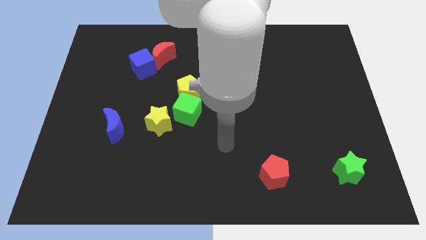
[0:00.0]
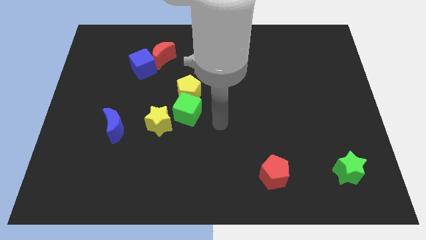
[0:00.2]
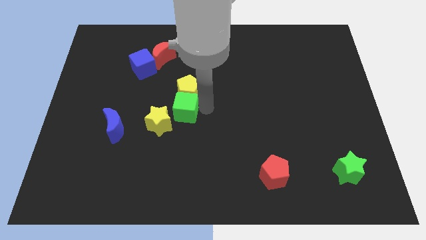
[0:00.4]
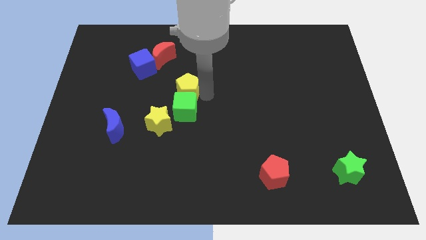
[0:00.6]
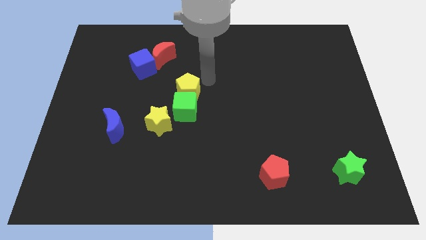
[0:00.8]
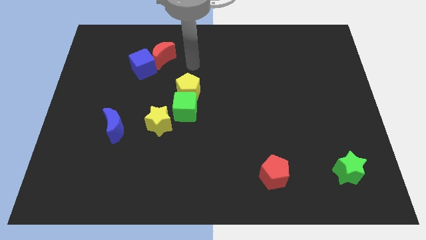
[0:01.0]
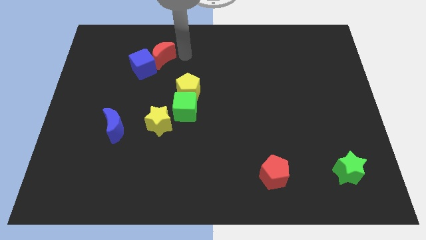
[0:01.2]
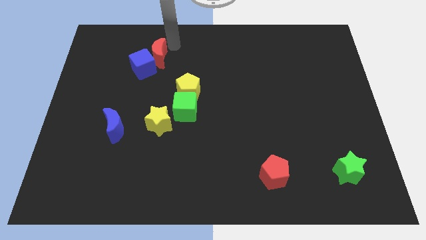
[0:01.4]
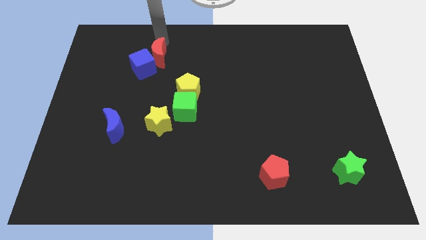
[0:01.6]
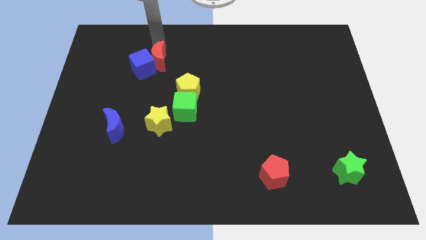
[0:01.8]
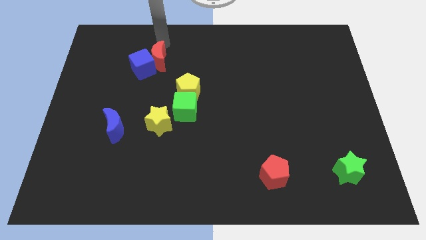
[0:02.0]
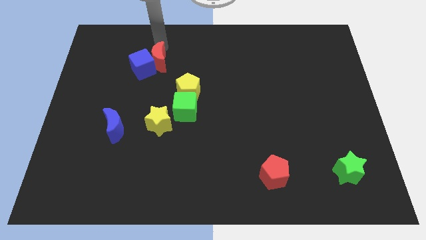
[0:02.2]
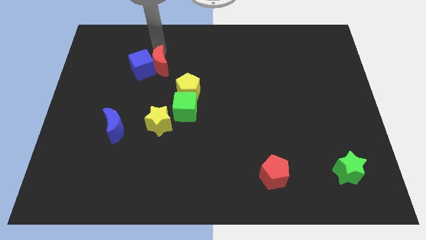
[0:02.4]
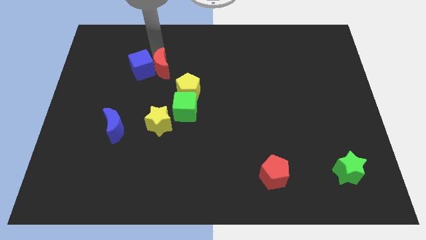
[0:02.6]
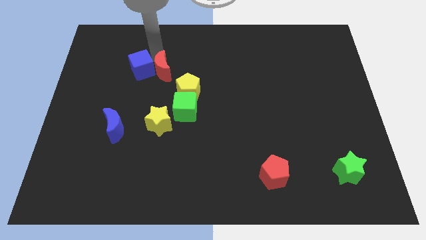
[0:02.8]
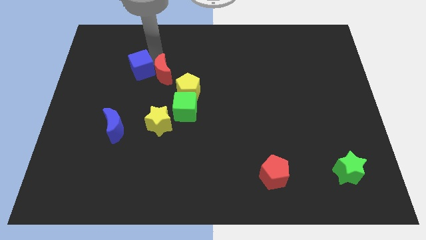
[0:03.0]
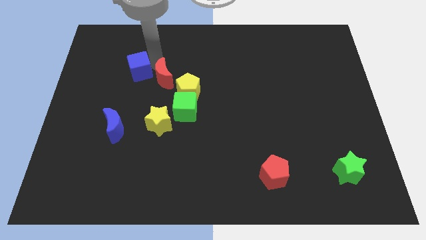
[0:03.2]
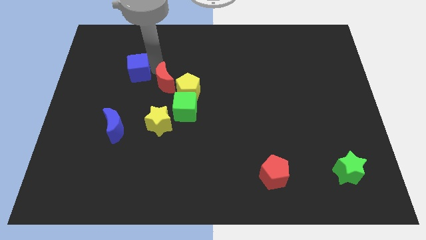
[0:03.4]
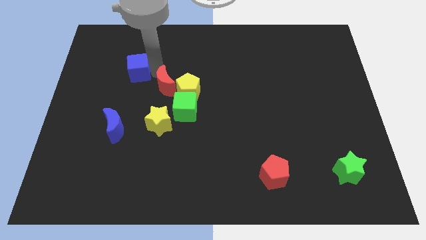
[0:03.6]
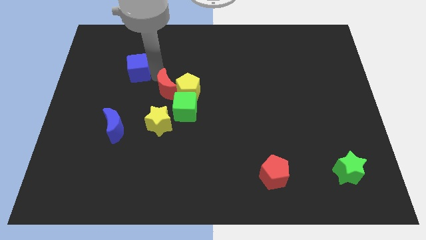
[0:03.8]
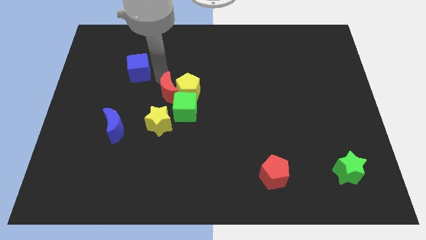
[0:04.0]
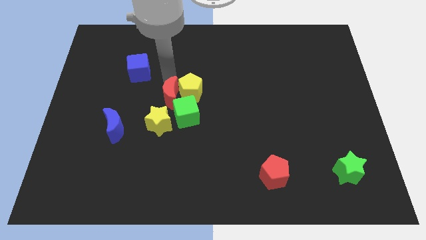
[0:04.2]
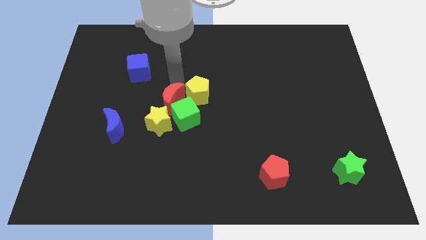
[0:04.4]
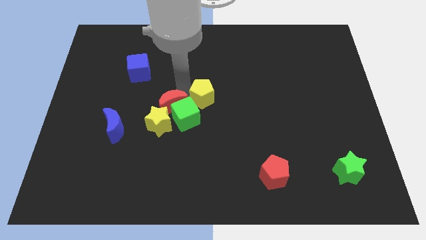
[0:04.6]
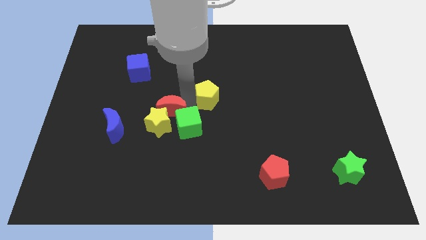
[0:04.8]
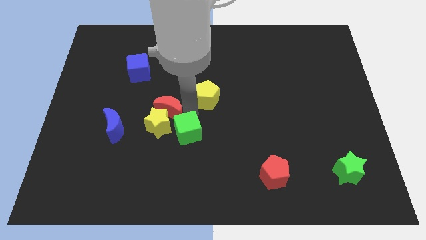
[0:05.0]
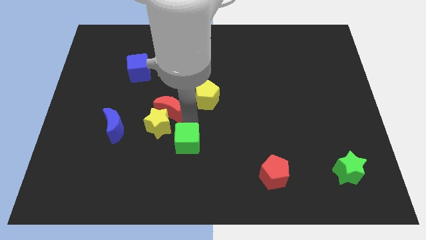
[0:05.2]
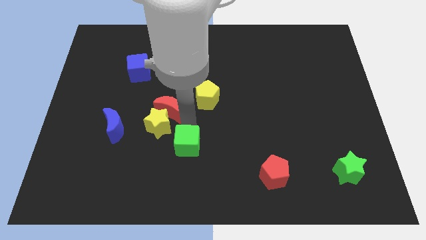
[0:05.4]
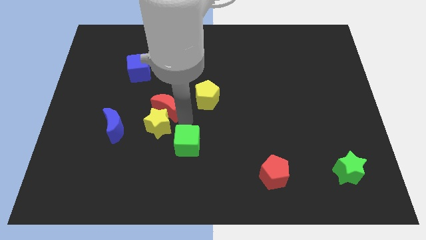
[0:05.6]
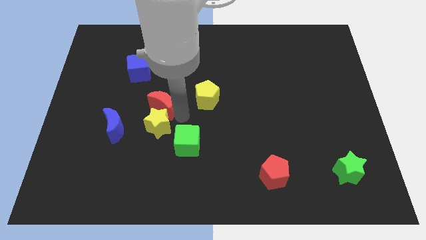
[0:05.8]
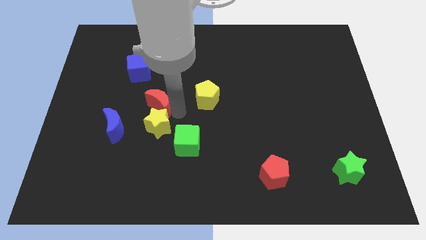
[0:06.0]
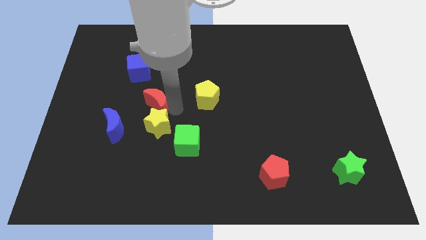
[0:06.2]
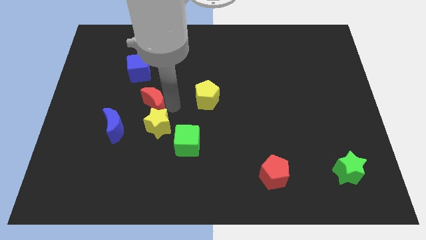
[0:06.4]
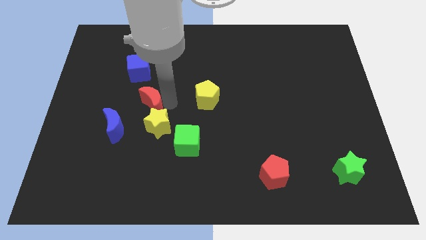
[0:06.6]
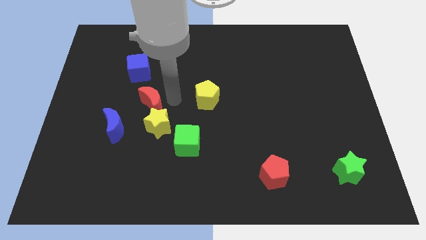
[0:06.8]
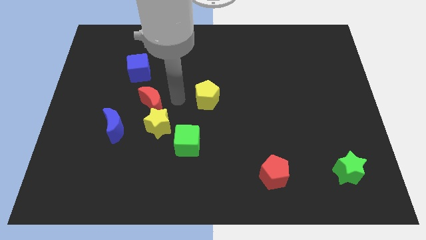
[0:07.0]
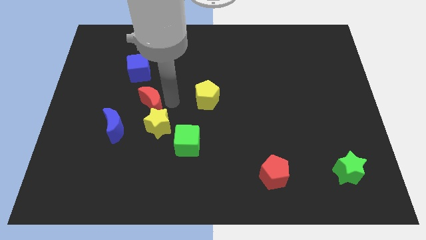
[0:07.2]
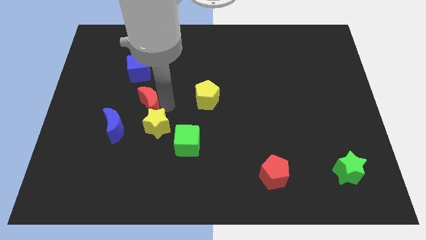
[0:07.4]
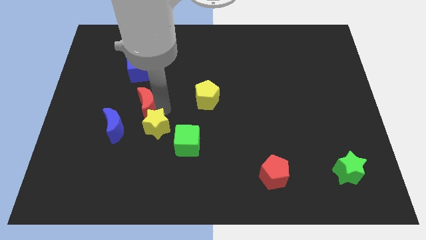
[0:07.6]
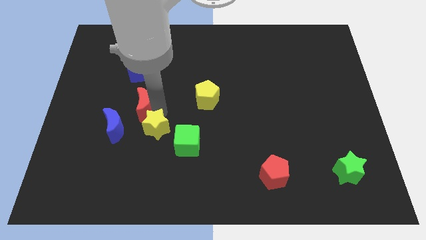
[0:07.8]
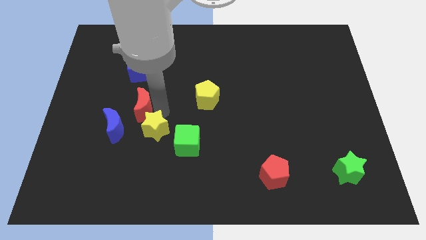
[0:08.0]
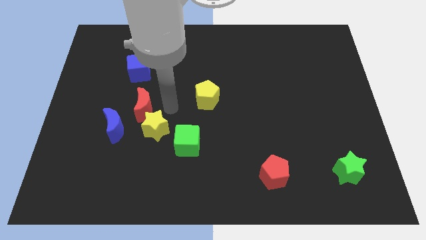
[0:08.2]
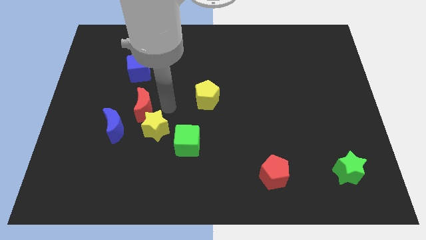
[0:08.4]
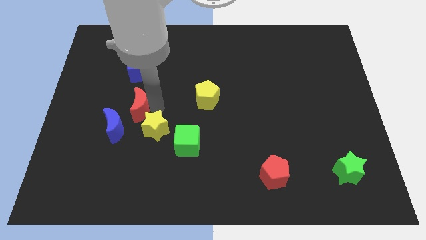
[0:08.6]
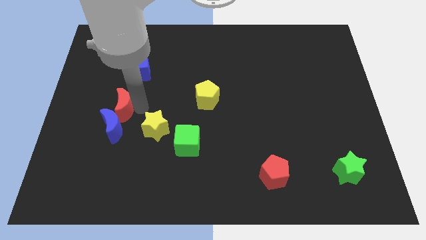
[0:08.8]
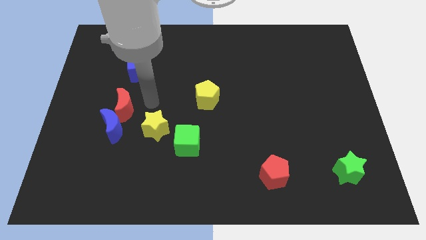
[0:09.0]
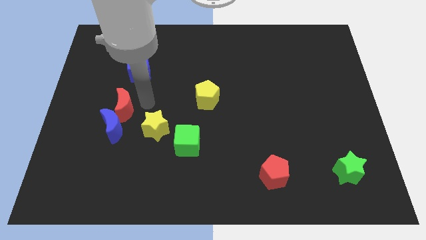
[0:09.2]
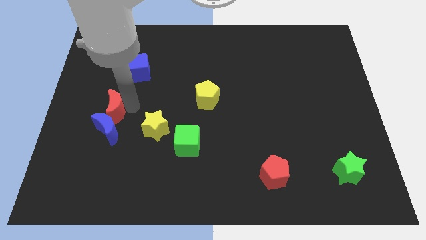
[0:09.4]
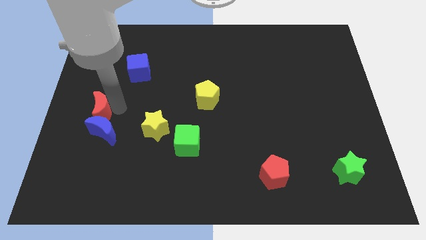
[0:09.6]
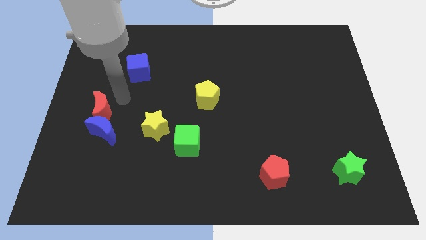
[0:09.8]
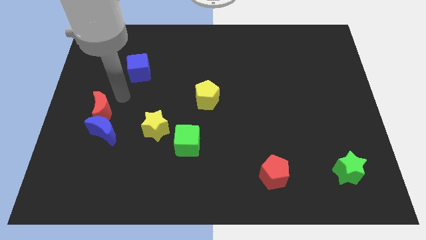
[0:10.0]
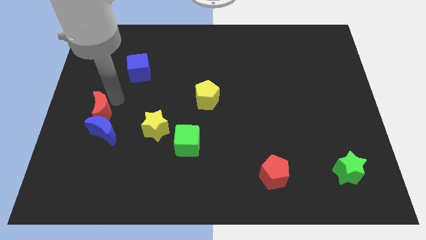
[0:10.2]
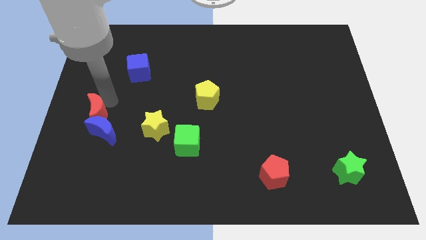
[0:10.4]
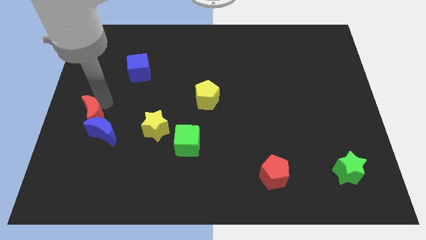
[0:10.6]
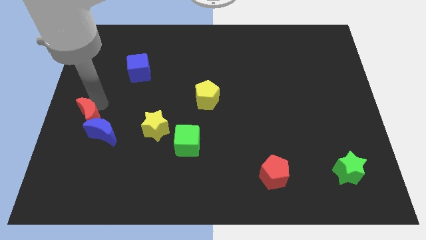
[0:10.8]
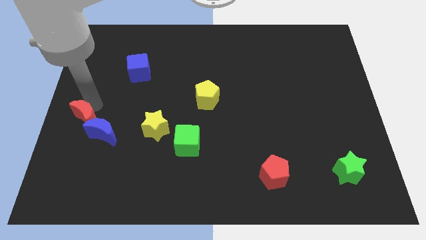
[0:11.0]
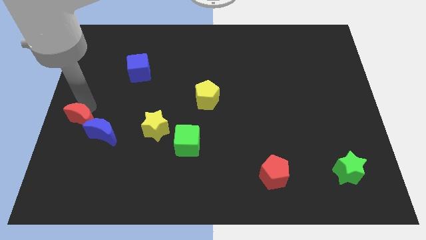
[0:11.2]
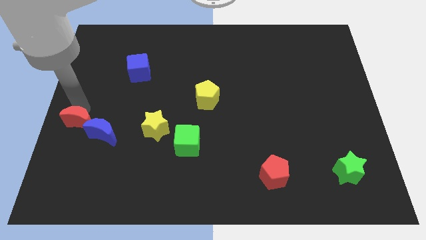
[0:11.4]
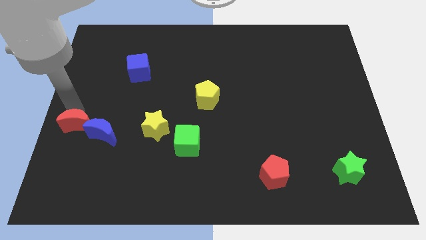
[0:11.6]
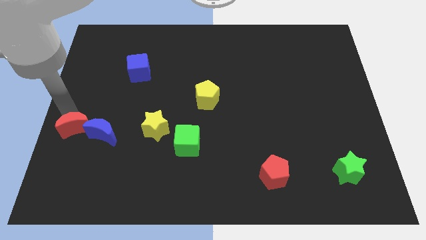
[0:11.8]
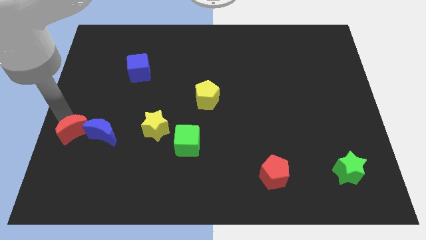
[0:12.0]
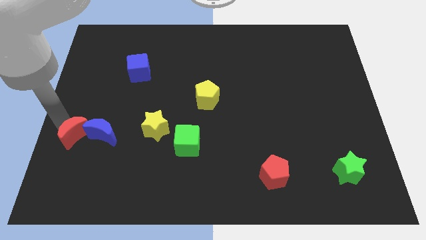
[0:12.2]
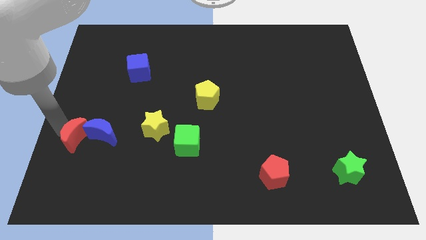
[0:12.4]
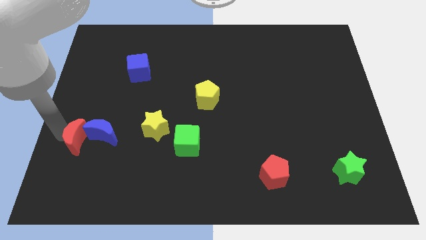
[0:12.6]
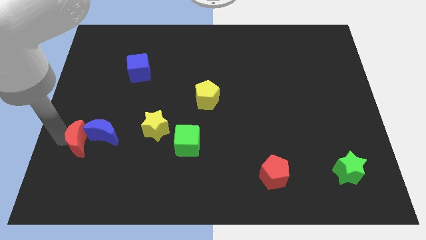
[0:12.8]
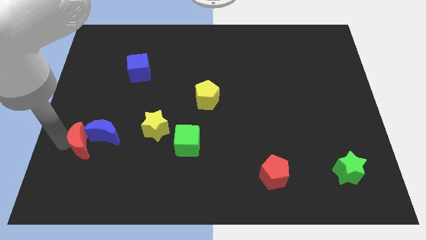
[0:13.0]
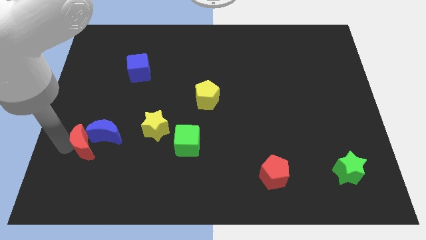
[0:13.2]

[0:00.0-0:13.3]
push the red moon to the bottom of the blue moon

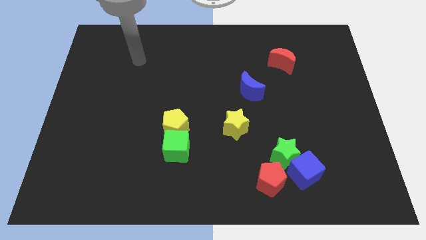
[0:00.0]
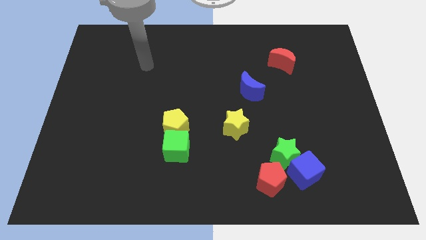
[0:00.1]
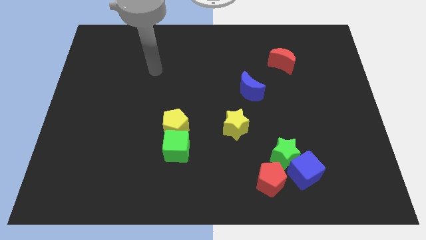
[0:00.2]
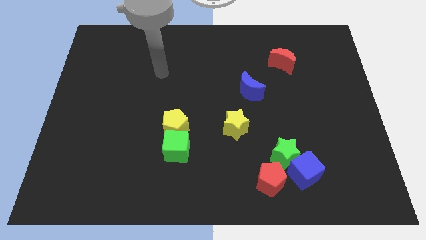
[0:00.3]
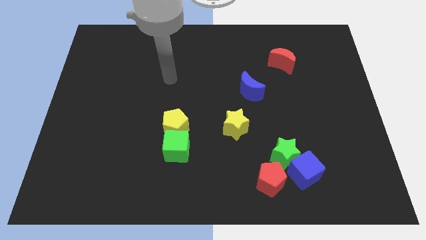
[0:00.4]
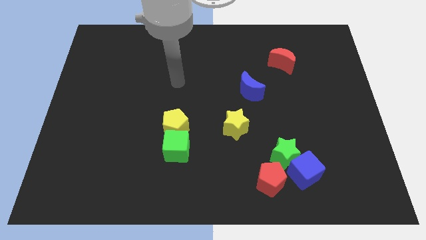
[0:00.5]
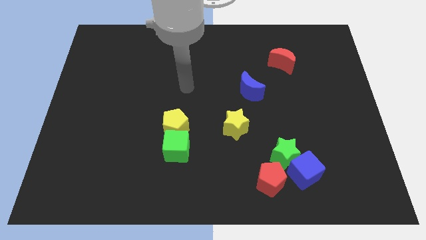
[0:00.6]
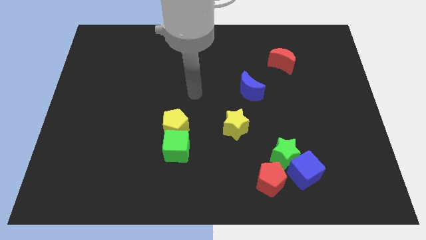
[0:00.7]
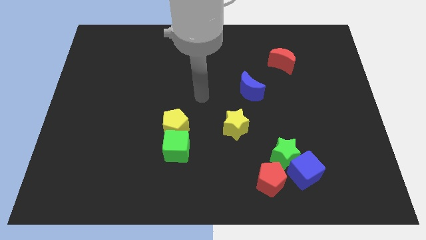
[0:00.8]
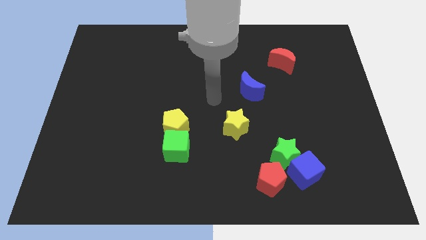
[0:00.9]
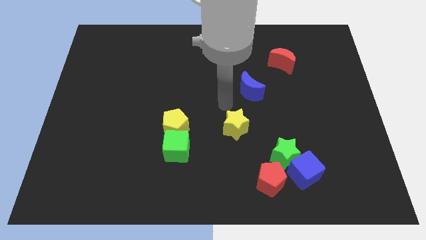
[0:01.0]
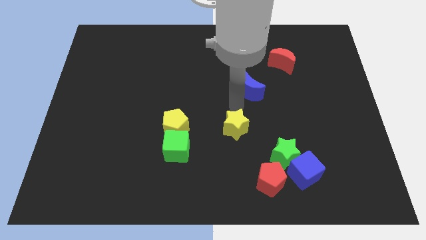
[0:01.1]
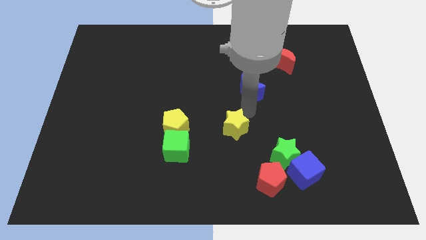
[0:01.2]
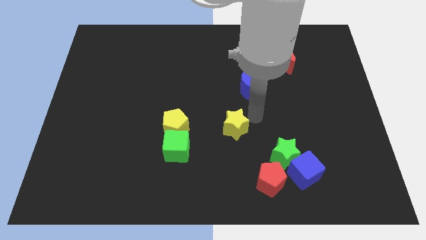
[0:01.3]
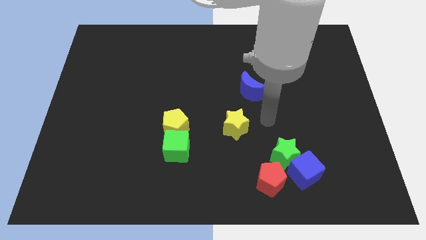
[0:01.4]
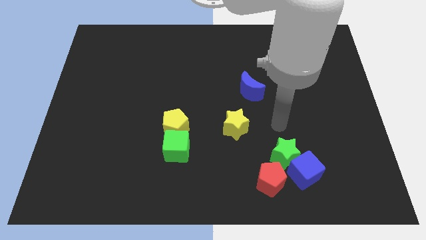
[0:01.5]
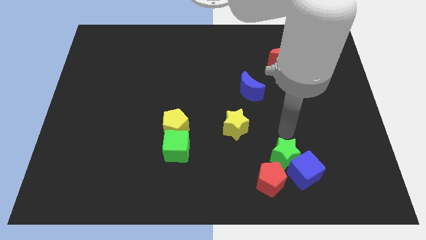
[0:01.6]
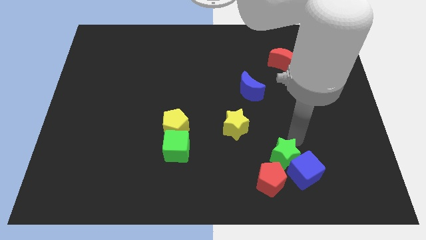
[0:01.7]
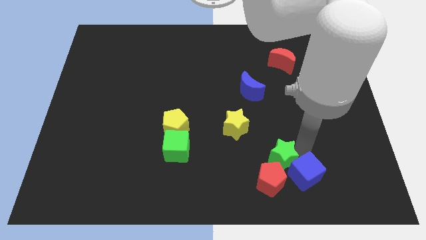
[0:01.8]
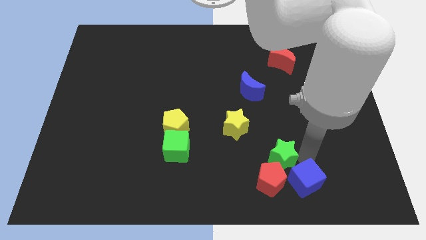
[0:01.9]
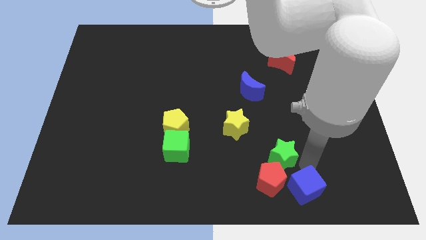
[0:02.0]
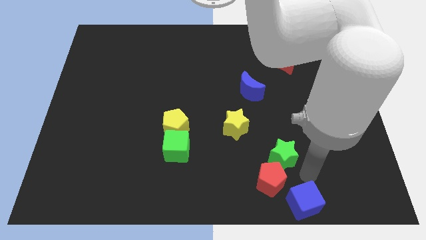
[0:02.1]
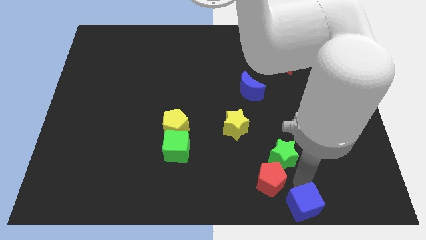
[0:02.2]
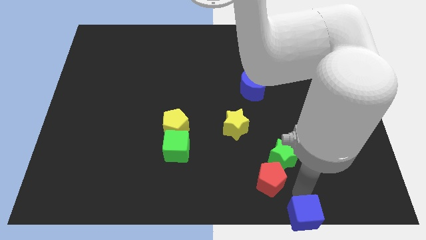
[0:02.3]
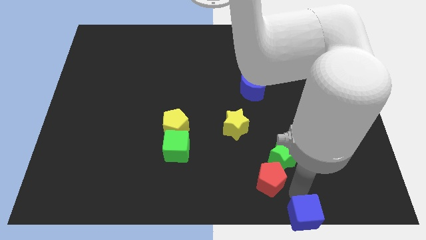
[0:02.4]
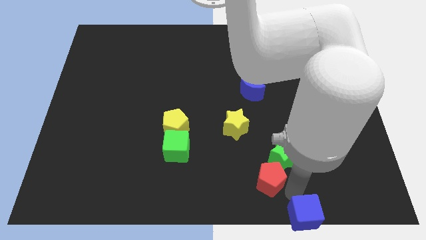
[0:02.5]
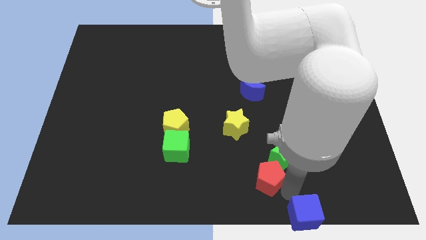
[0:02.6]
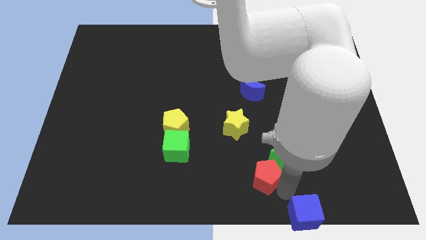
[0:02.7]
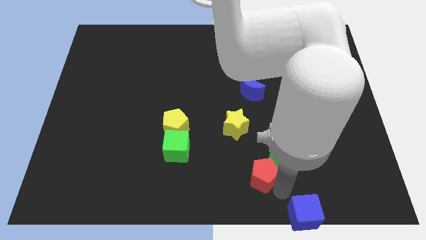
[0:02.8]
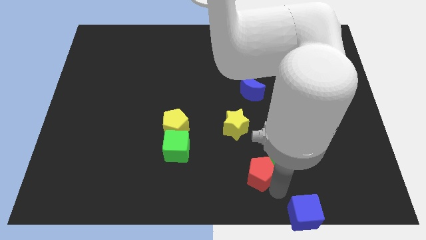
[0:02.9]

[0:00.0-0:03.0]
slide the red pentagon to the bottom of the yellow star
